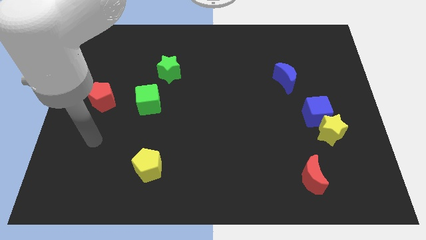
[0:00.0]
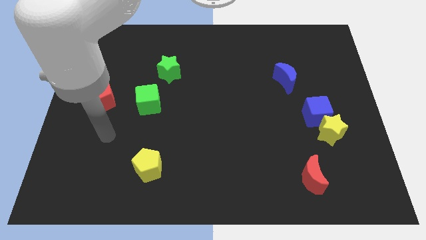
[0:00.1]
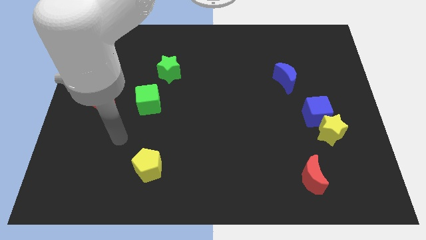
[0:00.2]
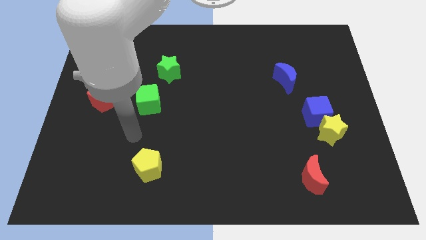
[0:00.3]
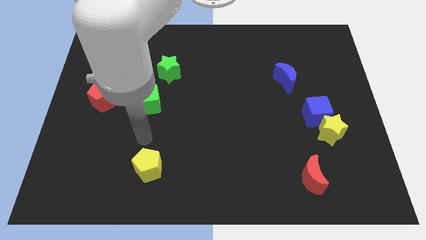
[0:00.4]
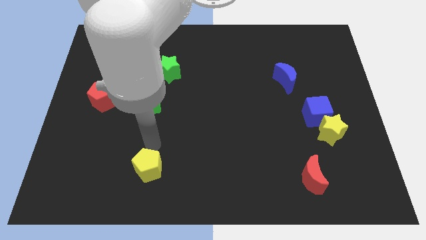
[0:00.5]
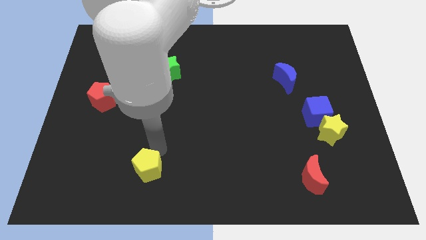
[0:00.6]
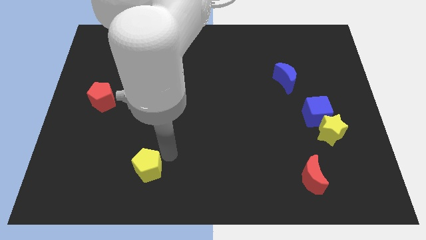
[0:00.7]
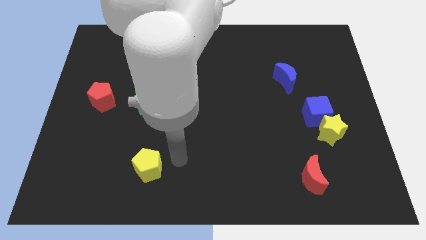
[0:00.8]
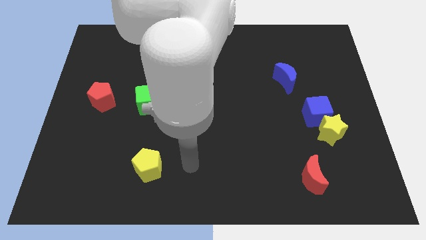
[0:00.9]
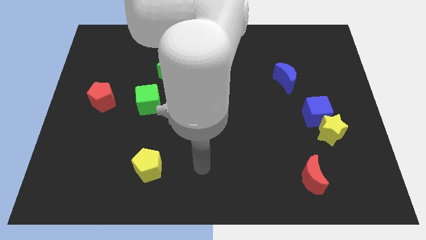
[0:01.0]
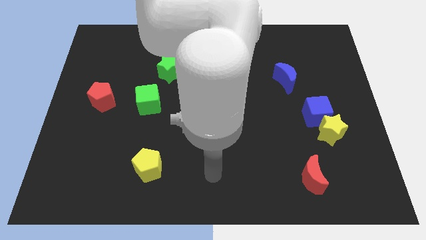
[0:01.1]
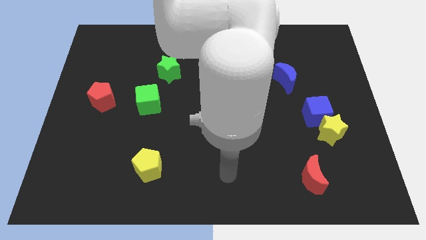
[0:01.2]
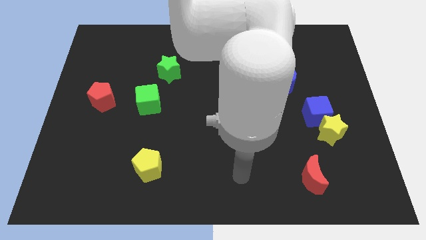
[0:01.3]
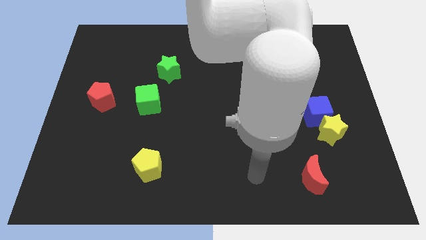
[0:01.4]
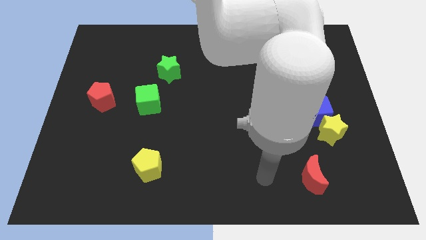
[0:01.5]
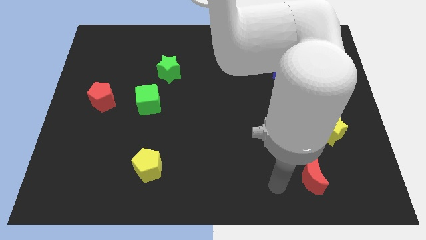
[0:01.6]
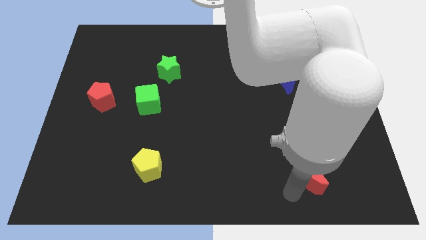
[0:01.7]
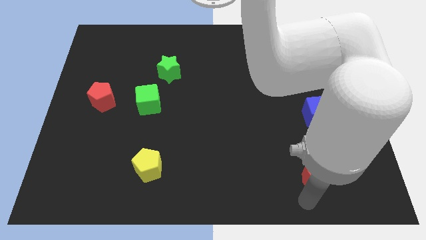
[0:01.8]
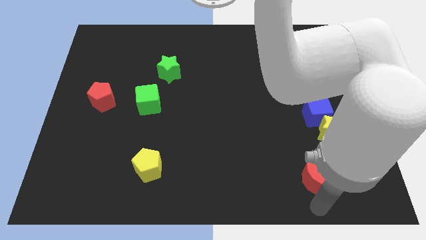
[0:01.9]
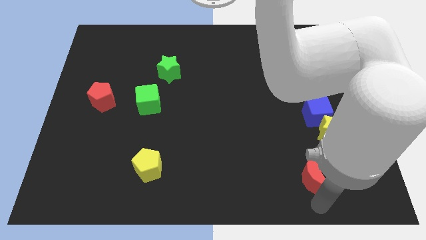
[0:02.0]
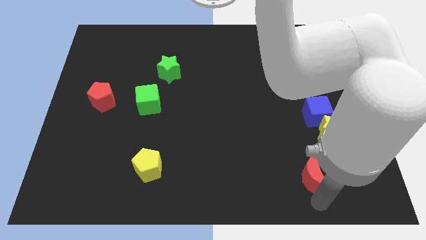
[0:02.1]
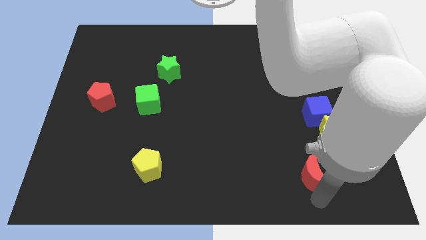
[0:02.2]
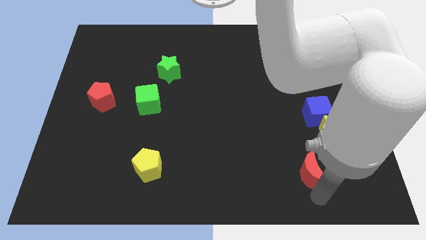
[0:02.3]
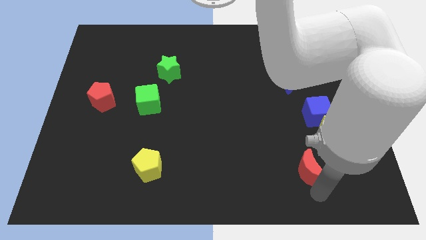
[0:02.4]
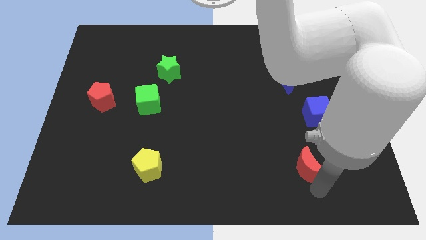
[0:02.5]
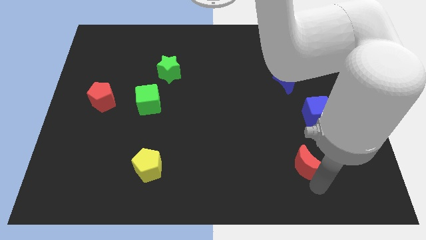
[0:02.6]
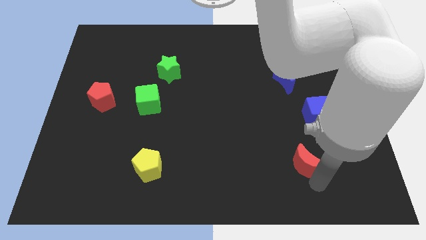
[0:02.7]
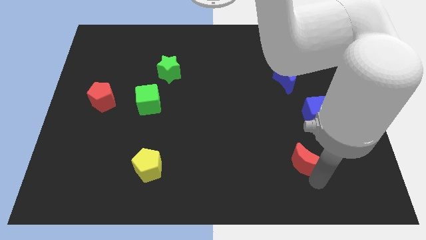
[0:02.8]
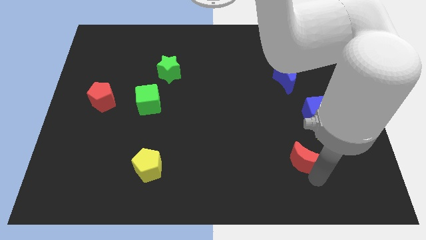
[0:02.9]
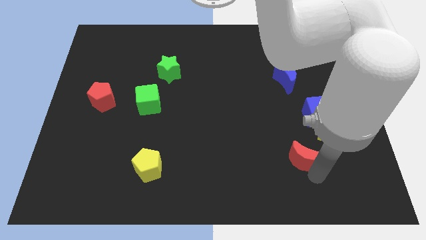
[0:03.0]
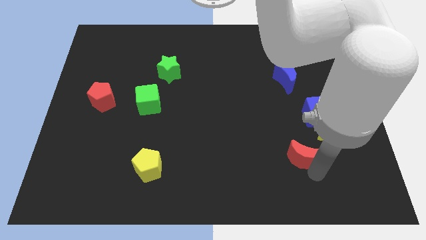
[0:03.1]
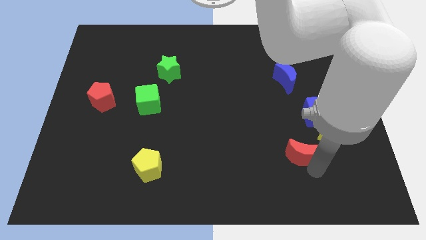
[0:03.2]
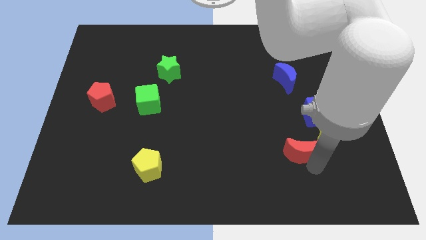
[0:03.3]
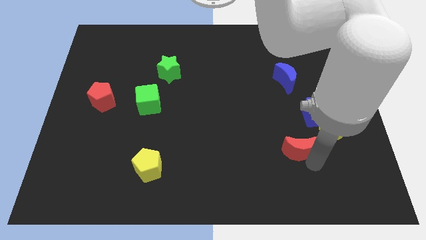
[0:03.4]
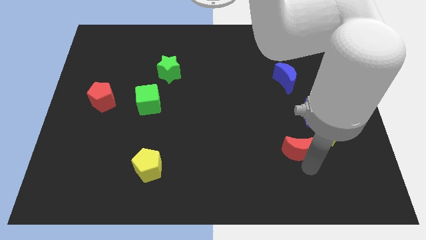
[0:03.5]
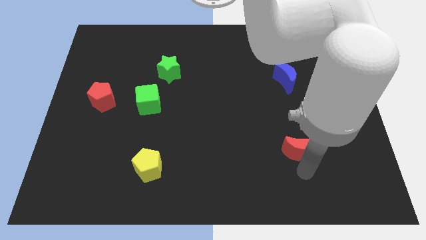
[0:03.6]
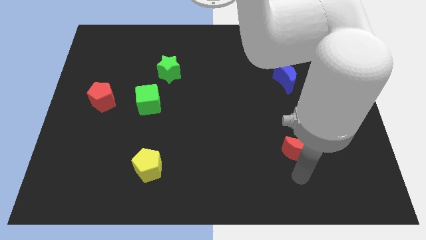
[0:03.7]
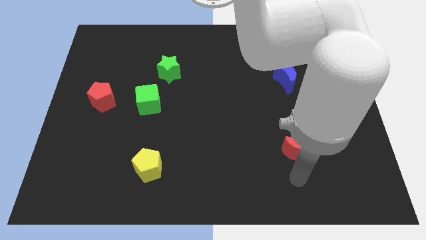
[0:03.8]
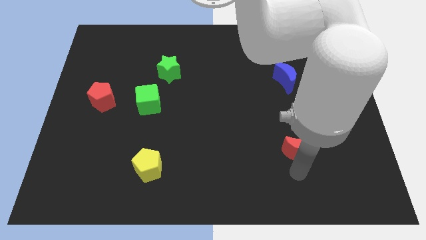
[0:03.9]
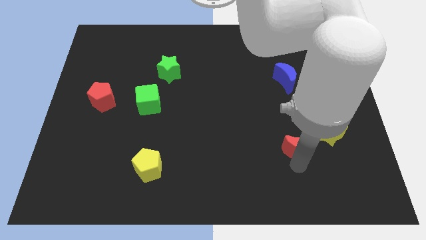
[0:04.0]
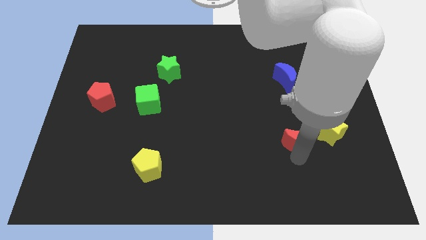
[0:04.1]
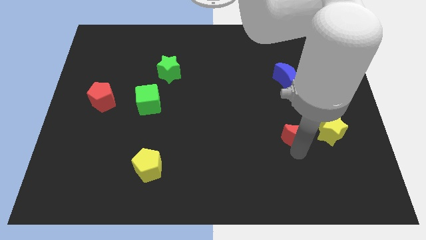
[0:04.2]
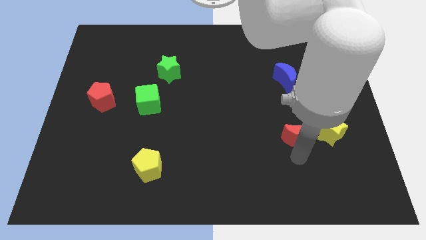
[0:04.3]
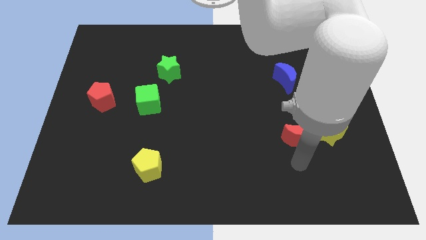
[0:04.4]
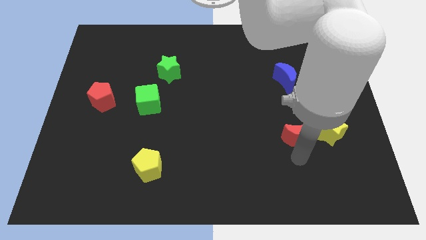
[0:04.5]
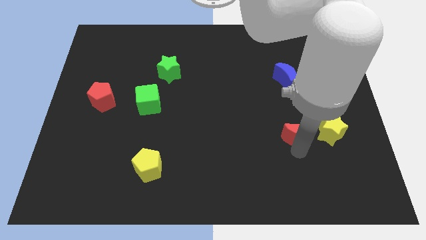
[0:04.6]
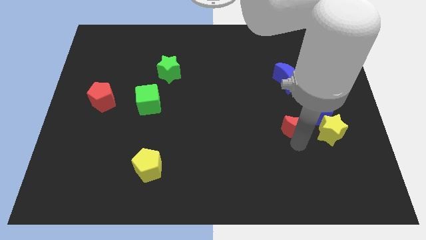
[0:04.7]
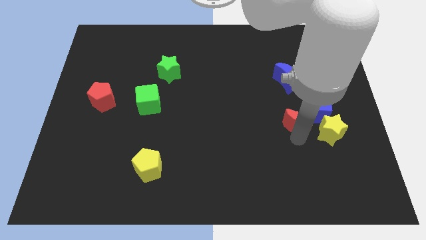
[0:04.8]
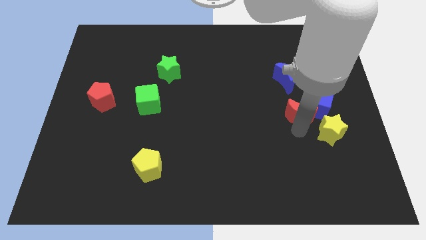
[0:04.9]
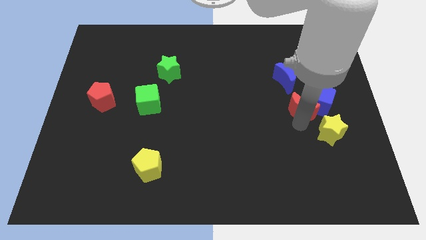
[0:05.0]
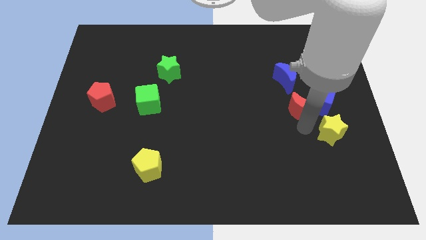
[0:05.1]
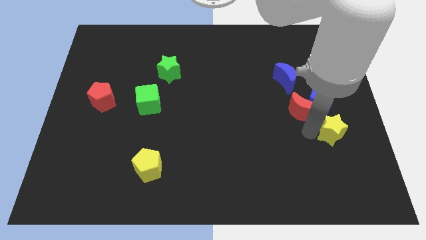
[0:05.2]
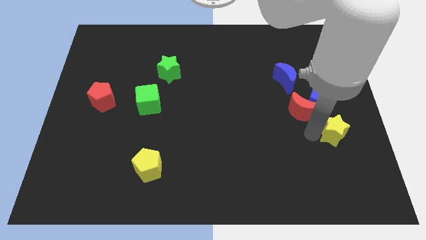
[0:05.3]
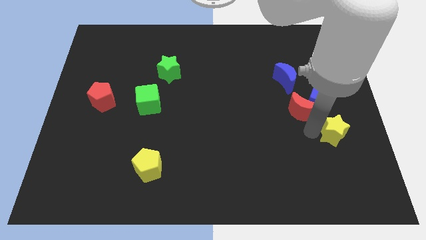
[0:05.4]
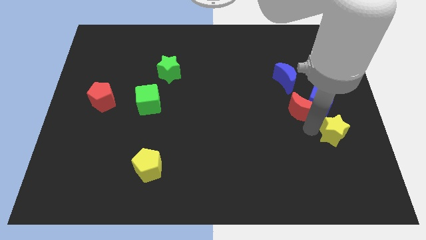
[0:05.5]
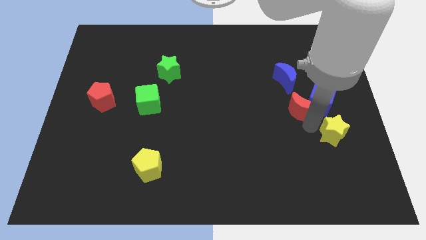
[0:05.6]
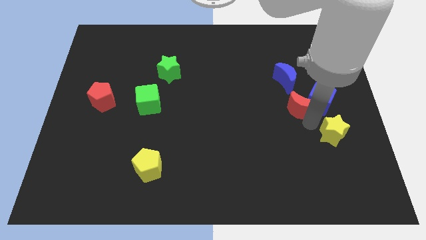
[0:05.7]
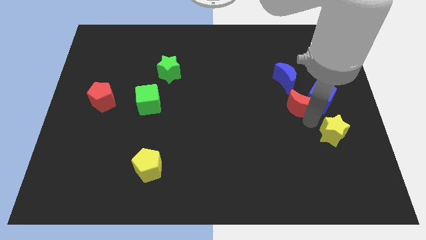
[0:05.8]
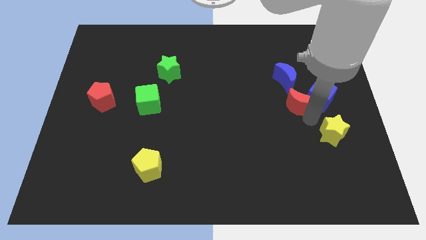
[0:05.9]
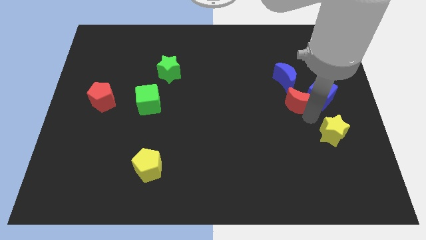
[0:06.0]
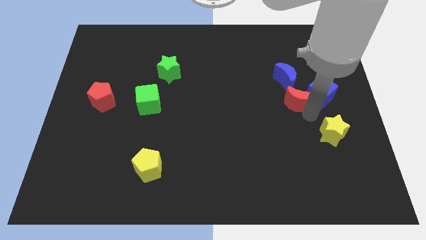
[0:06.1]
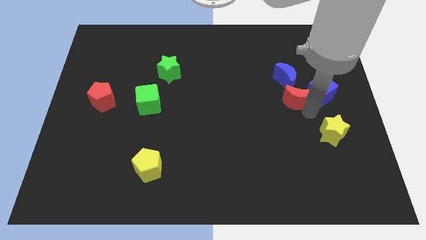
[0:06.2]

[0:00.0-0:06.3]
move the red moon upwards

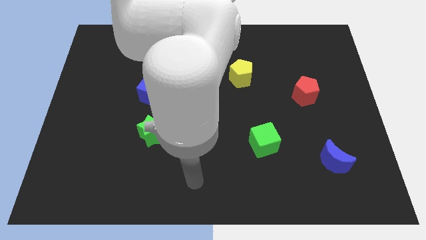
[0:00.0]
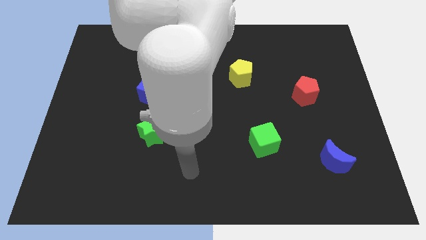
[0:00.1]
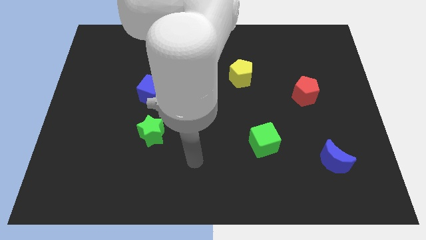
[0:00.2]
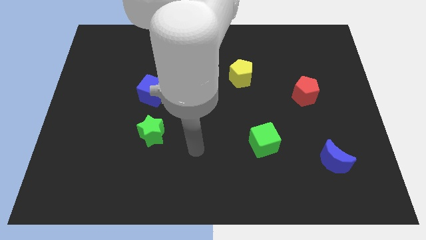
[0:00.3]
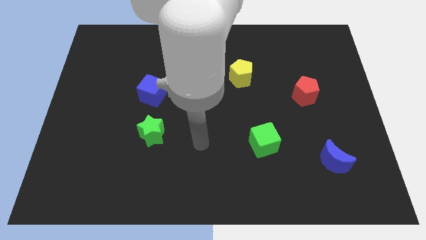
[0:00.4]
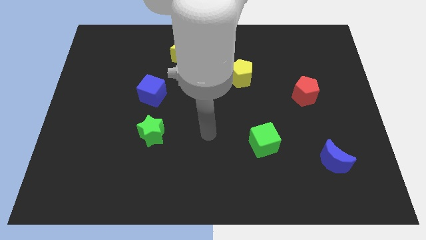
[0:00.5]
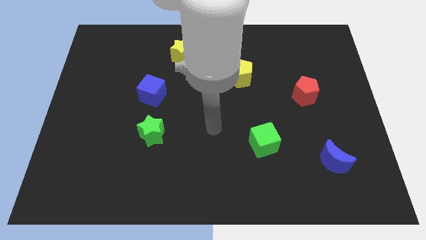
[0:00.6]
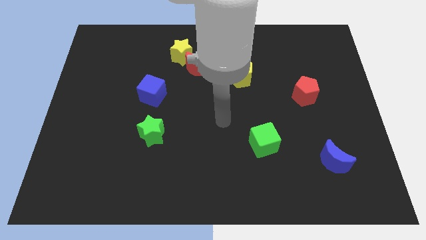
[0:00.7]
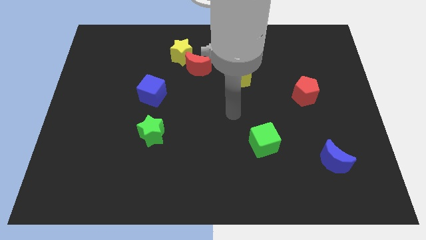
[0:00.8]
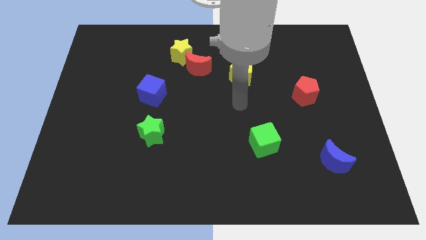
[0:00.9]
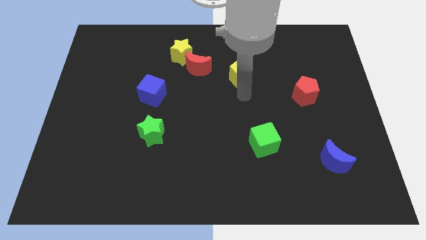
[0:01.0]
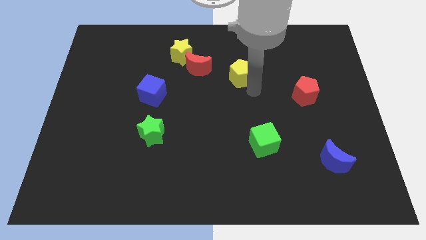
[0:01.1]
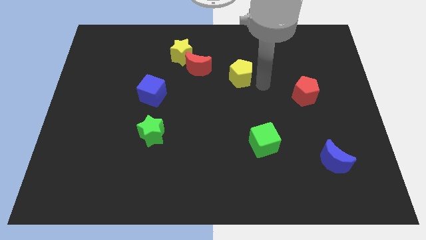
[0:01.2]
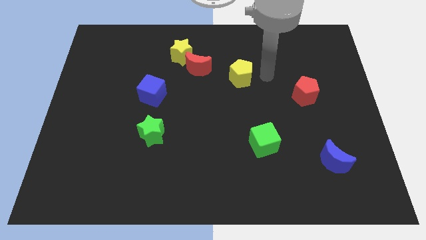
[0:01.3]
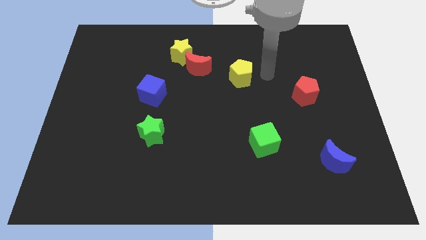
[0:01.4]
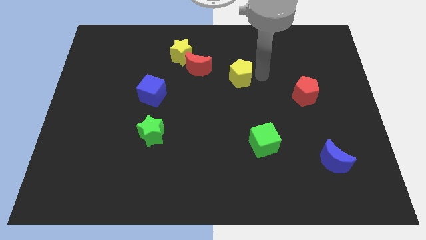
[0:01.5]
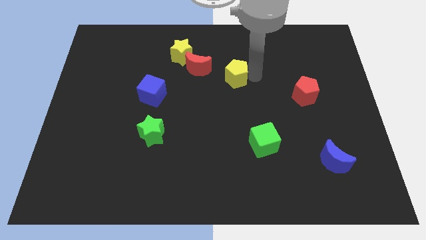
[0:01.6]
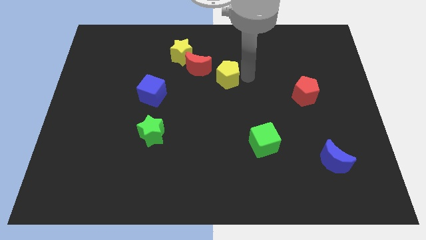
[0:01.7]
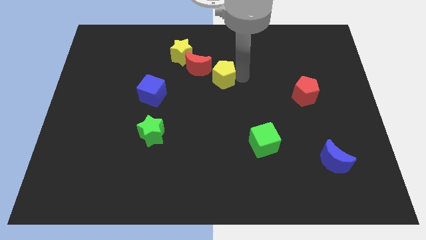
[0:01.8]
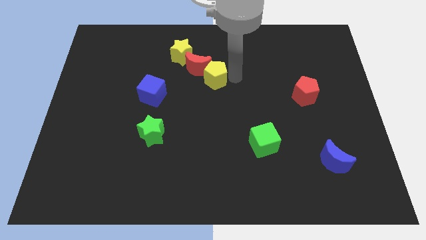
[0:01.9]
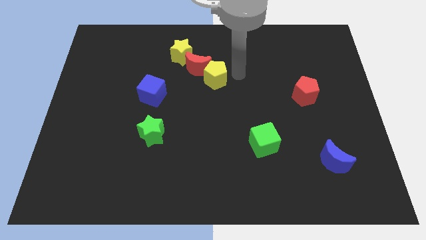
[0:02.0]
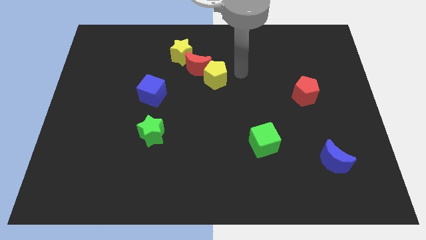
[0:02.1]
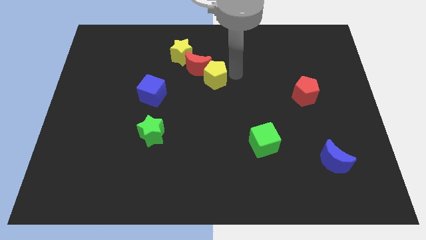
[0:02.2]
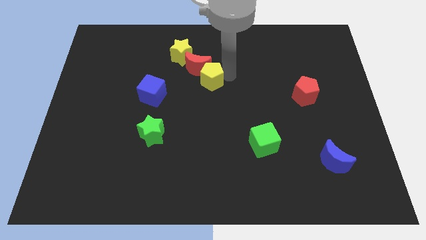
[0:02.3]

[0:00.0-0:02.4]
move the yellow pentagon left somewhat
